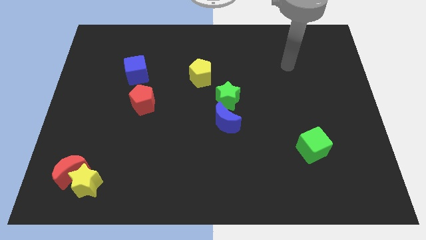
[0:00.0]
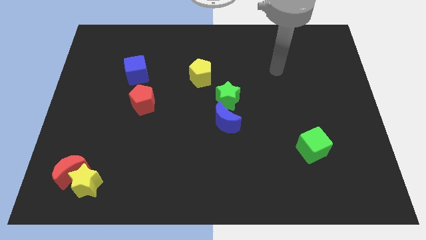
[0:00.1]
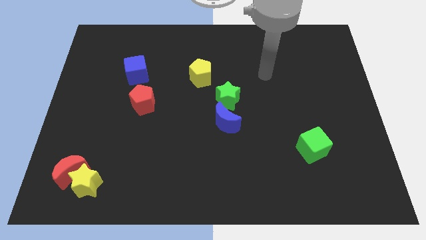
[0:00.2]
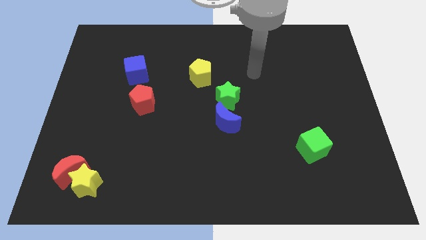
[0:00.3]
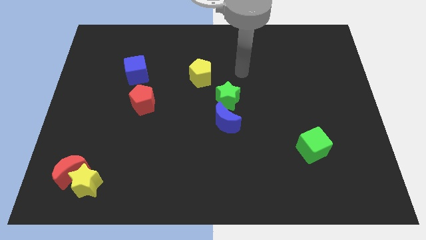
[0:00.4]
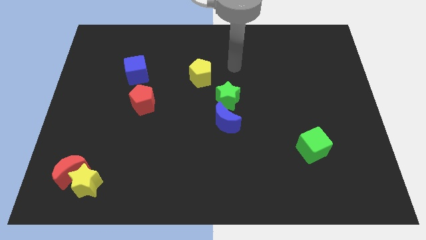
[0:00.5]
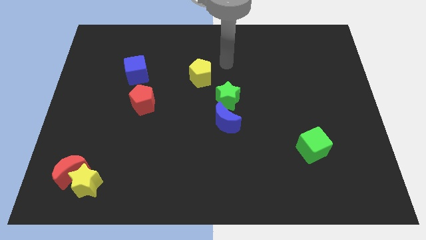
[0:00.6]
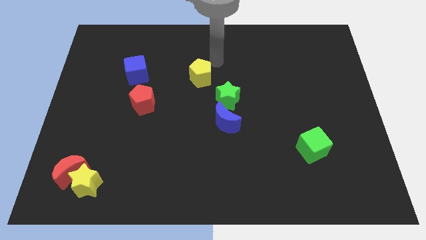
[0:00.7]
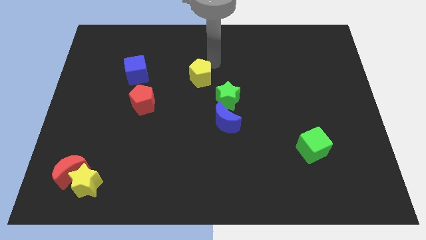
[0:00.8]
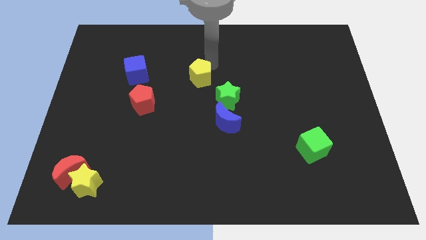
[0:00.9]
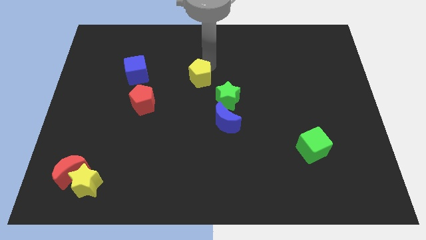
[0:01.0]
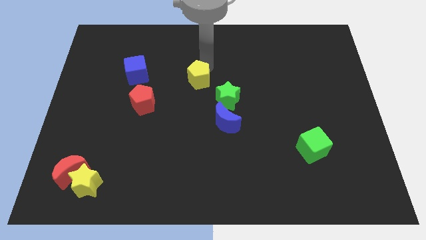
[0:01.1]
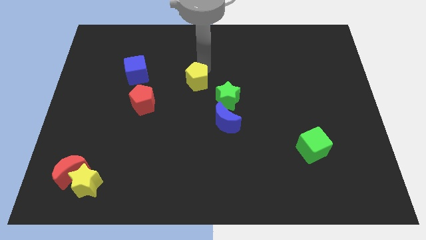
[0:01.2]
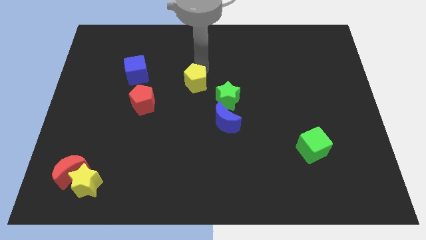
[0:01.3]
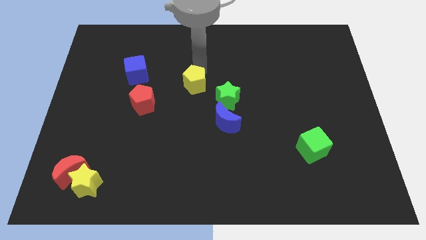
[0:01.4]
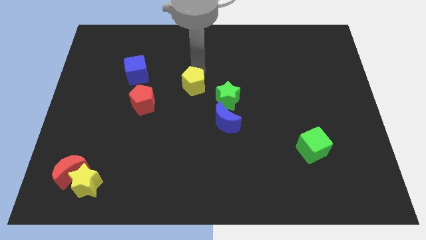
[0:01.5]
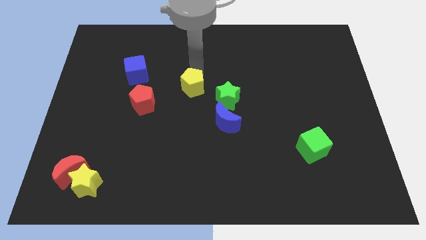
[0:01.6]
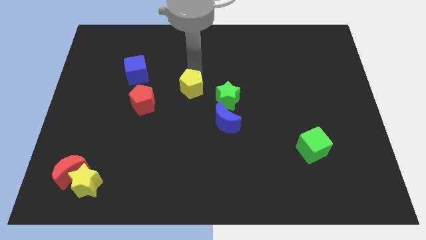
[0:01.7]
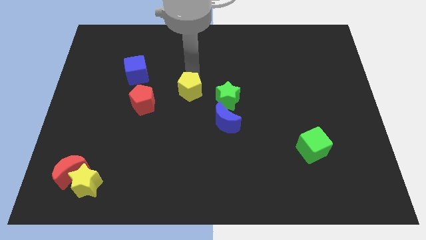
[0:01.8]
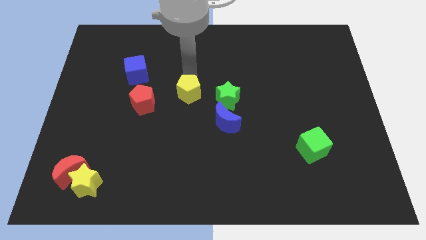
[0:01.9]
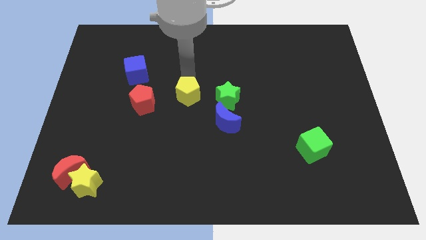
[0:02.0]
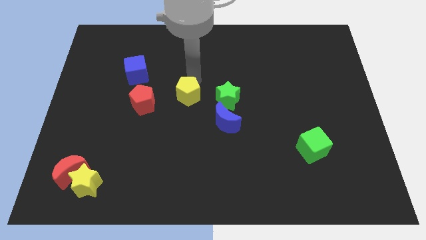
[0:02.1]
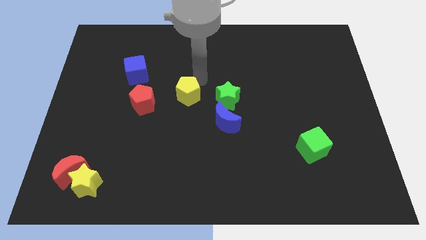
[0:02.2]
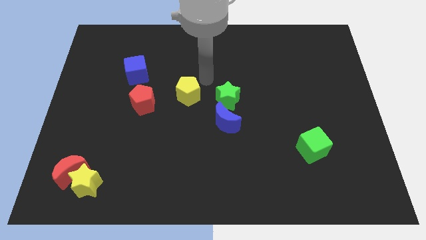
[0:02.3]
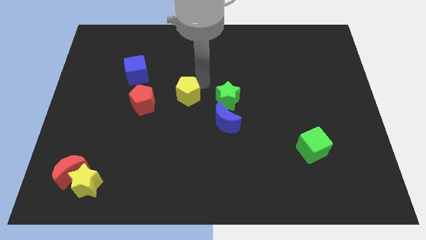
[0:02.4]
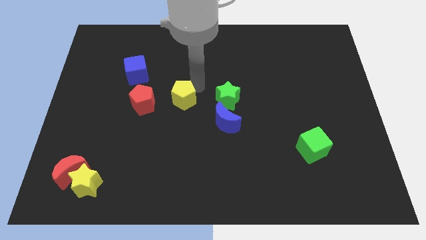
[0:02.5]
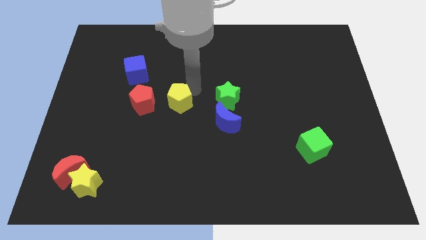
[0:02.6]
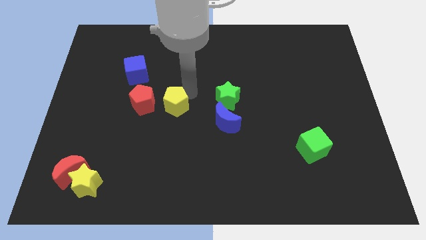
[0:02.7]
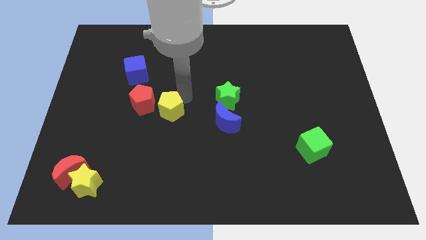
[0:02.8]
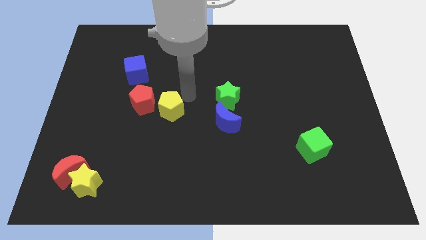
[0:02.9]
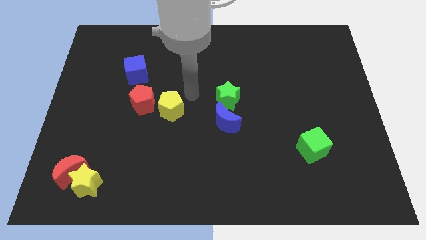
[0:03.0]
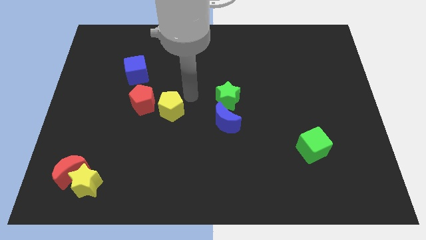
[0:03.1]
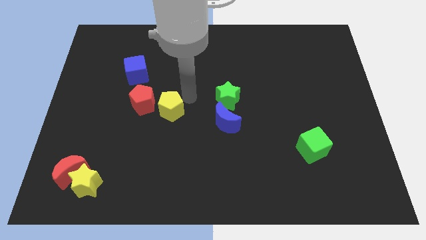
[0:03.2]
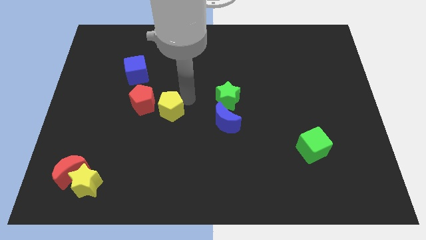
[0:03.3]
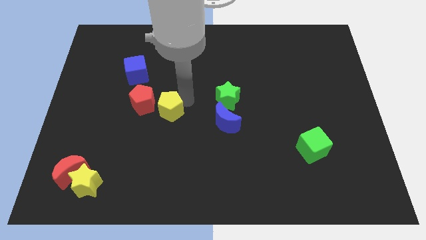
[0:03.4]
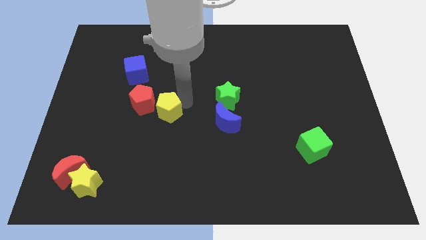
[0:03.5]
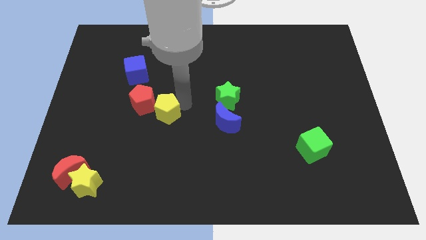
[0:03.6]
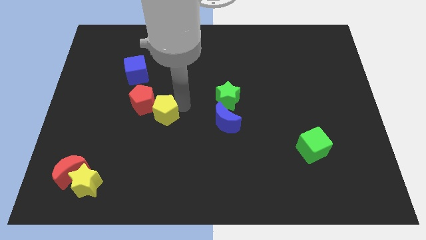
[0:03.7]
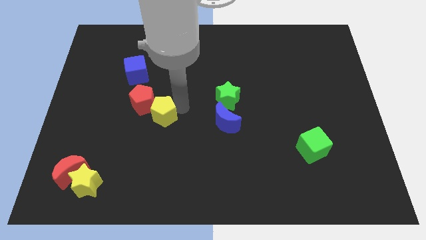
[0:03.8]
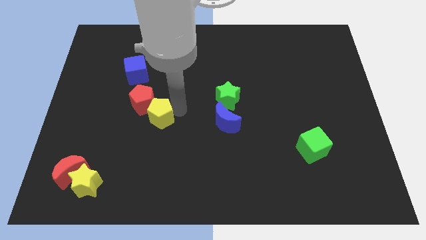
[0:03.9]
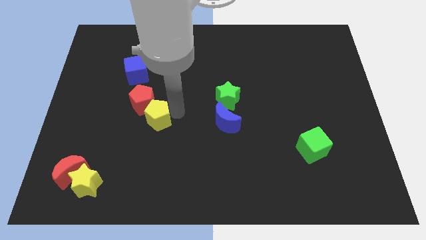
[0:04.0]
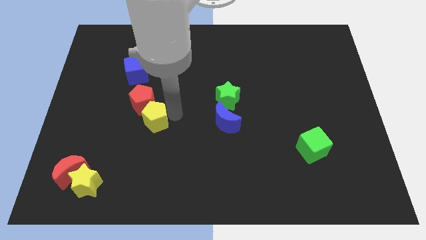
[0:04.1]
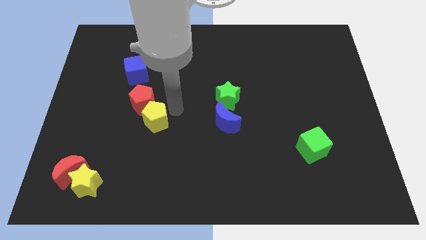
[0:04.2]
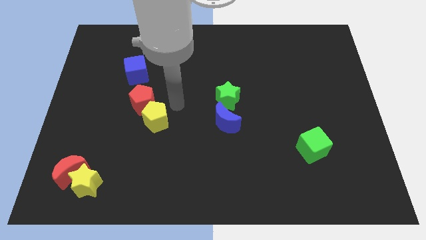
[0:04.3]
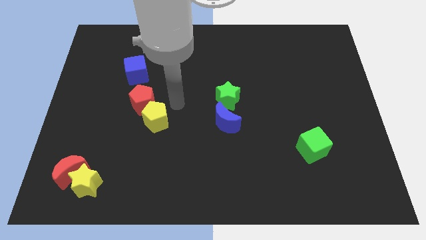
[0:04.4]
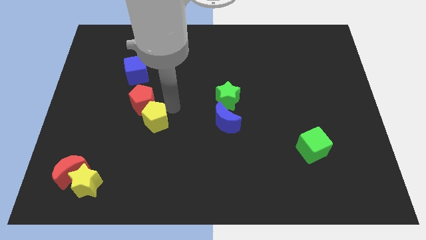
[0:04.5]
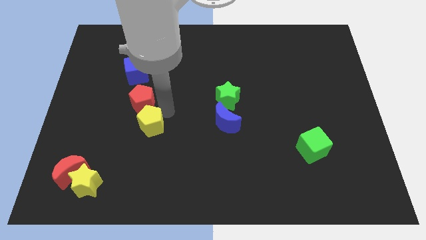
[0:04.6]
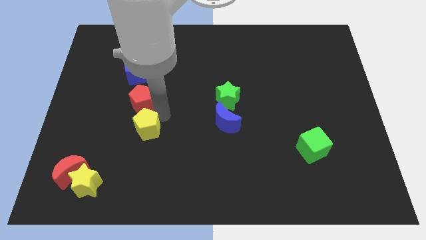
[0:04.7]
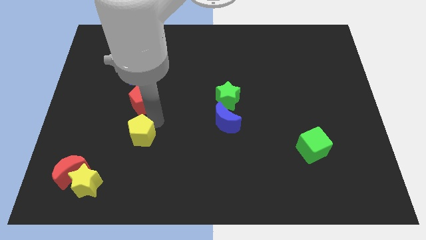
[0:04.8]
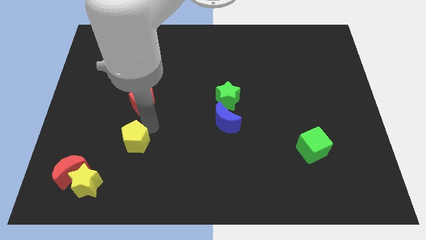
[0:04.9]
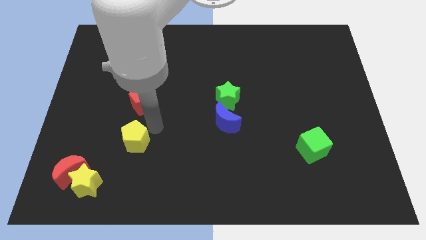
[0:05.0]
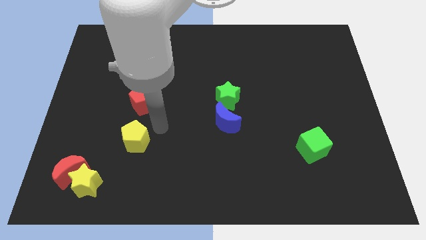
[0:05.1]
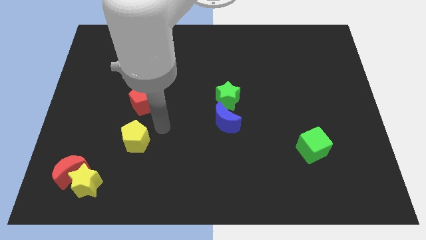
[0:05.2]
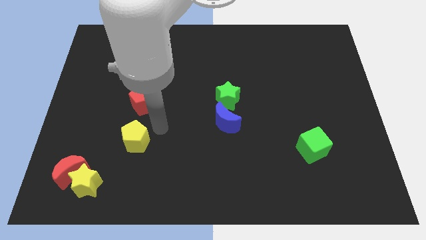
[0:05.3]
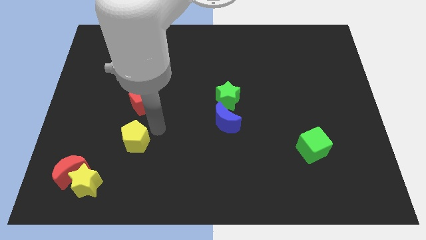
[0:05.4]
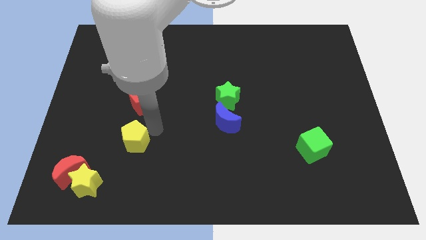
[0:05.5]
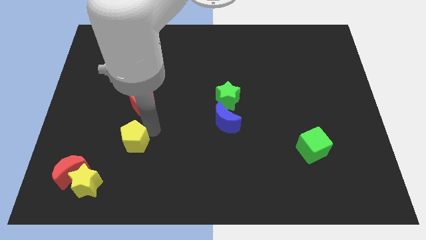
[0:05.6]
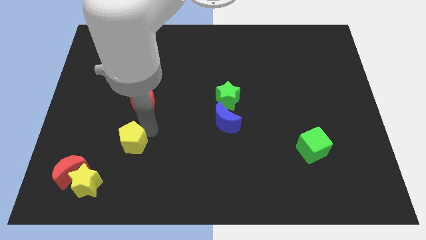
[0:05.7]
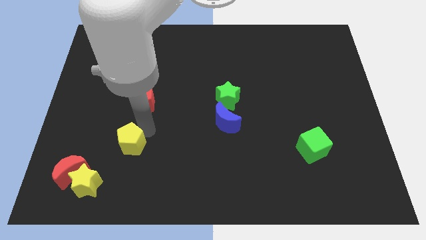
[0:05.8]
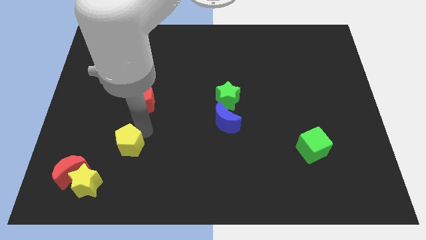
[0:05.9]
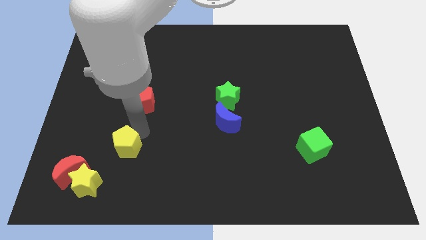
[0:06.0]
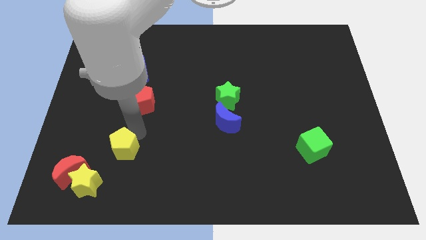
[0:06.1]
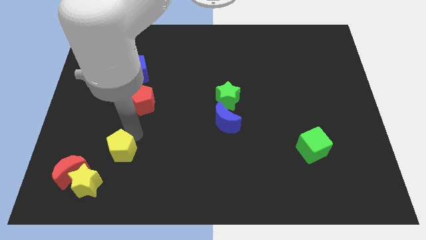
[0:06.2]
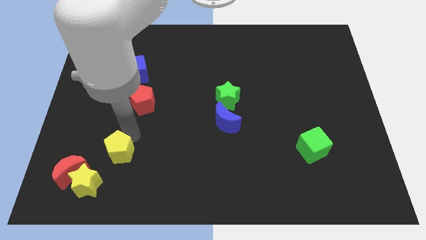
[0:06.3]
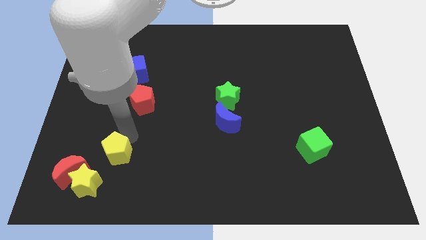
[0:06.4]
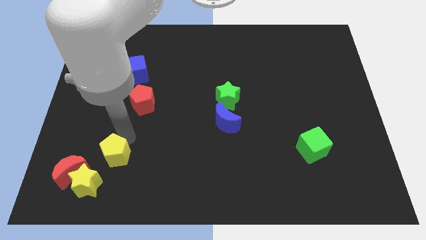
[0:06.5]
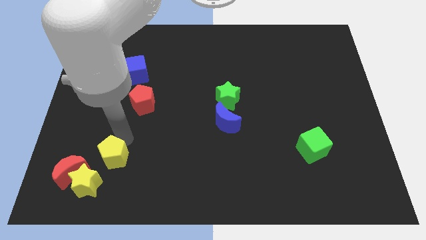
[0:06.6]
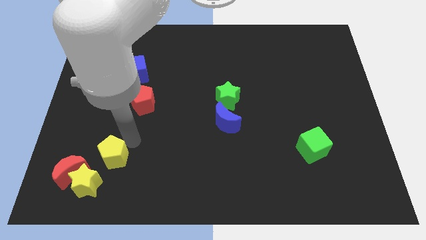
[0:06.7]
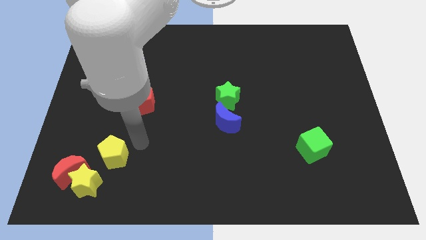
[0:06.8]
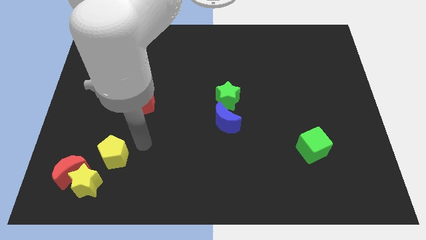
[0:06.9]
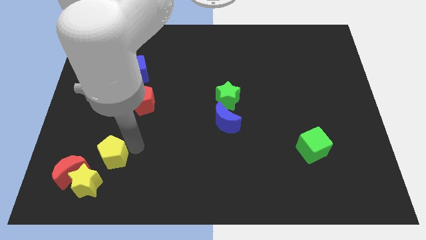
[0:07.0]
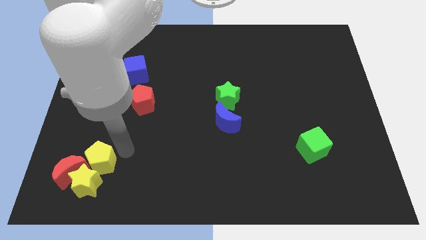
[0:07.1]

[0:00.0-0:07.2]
put the yellow pentagon close to the red moon
